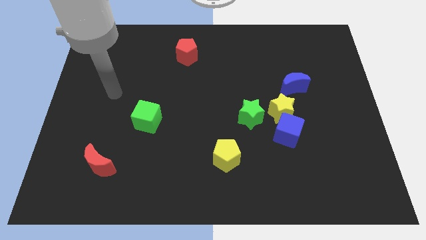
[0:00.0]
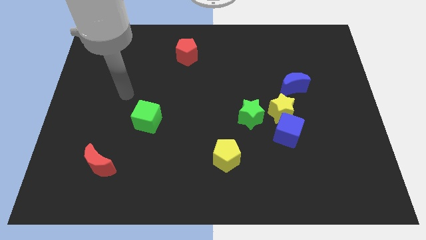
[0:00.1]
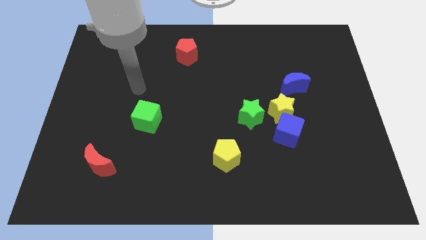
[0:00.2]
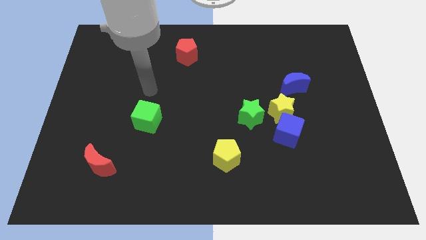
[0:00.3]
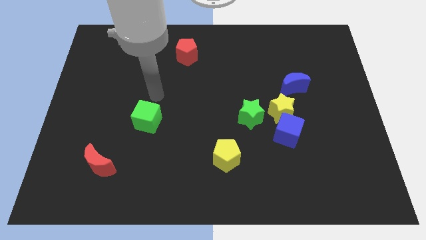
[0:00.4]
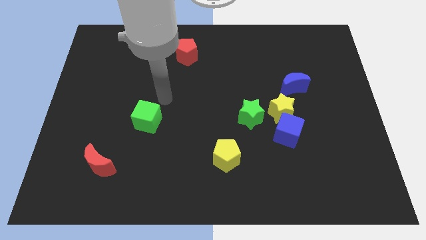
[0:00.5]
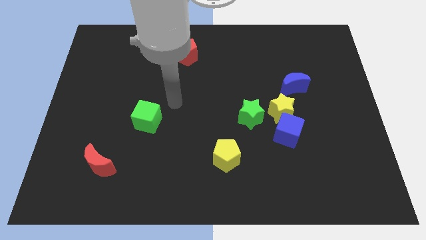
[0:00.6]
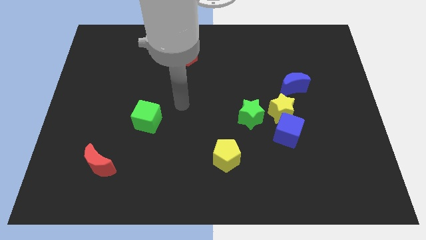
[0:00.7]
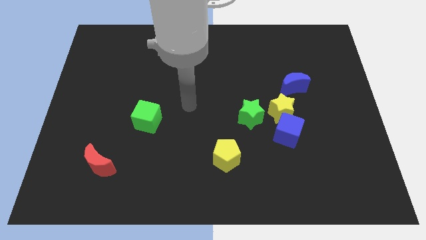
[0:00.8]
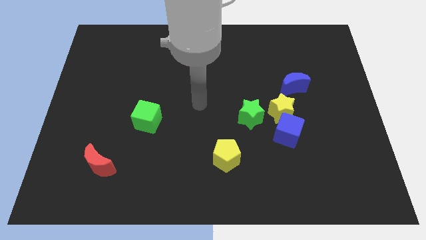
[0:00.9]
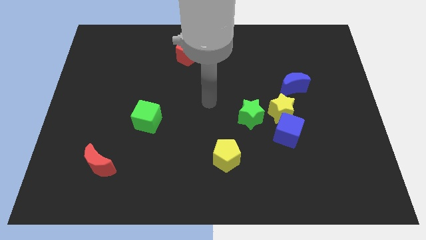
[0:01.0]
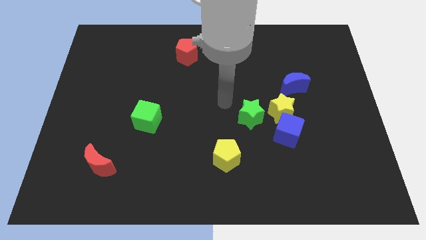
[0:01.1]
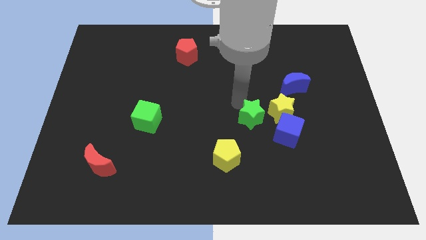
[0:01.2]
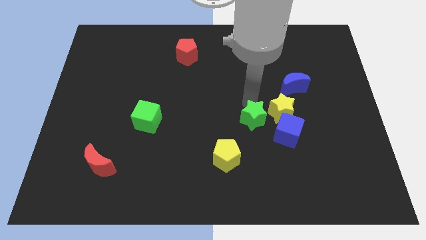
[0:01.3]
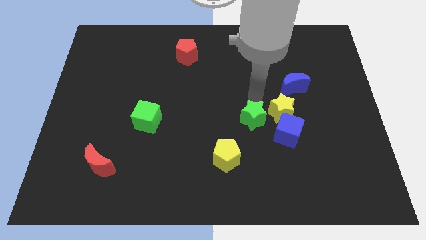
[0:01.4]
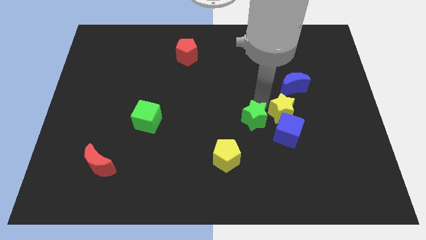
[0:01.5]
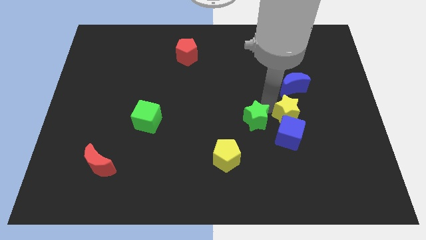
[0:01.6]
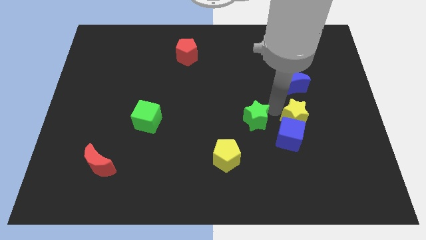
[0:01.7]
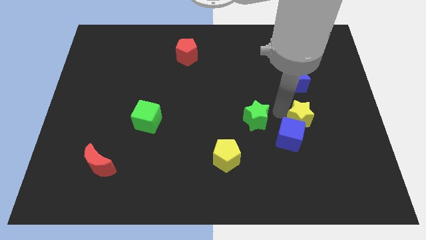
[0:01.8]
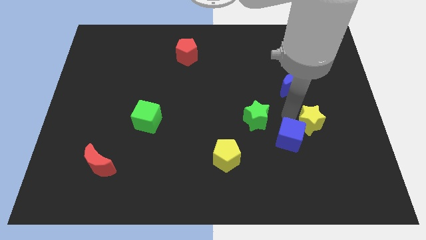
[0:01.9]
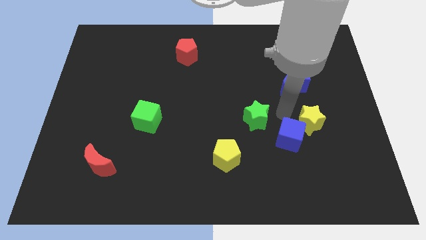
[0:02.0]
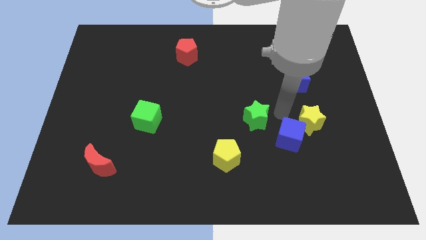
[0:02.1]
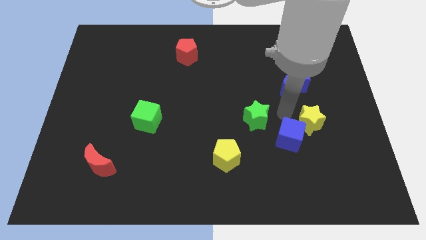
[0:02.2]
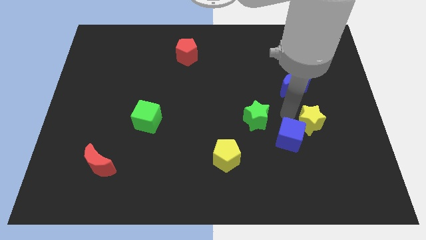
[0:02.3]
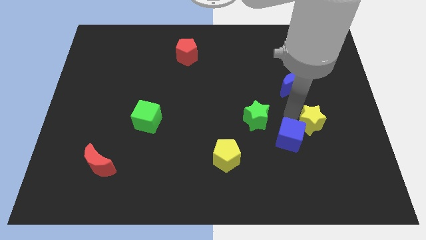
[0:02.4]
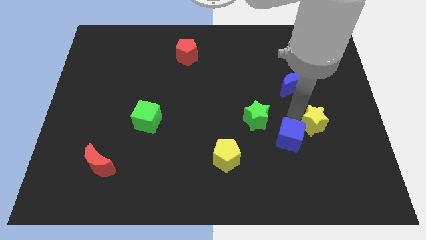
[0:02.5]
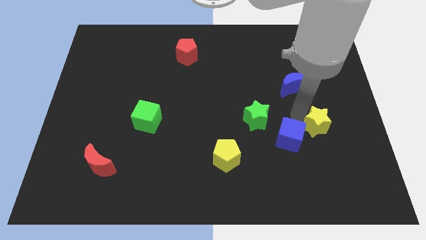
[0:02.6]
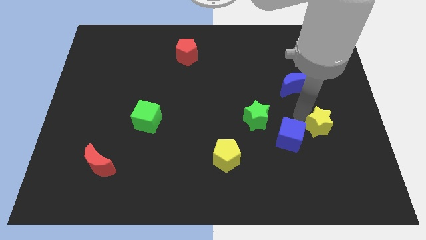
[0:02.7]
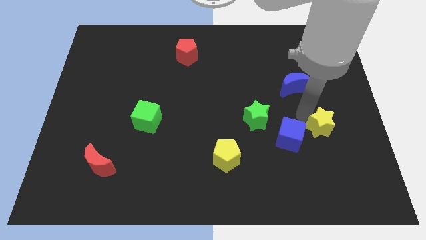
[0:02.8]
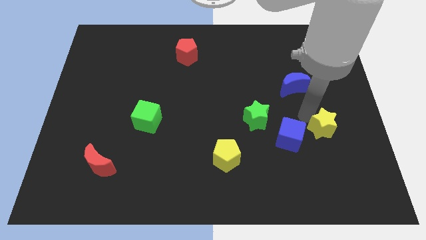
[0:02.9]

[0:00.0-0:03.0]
move the yellow star away from the group of blocks

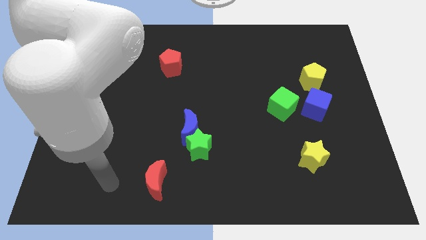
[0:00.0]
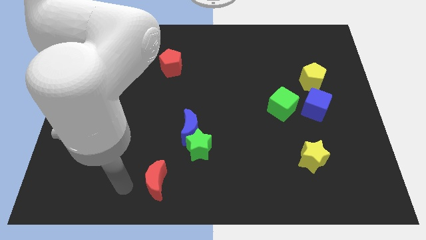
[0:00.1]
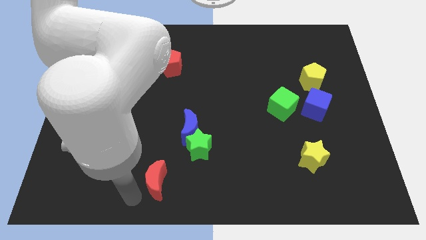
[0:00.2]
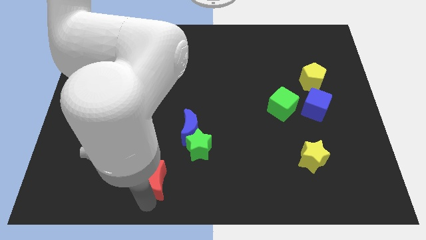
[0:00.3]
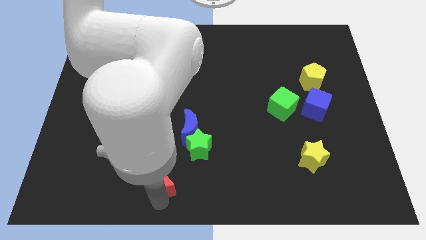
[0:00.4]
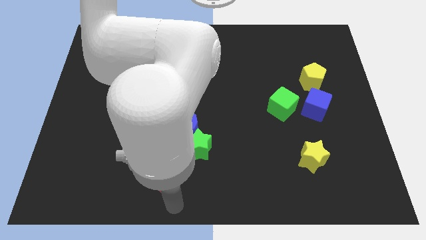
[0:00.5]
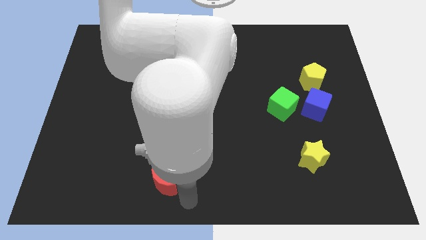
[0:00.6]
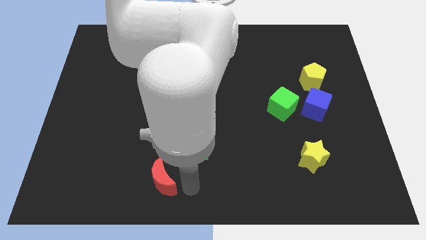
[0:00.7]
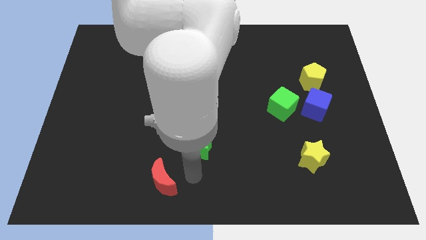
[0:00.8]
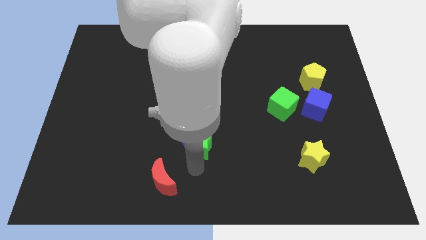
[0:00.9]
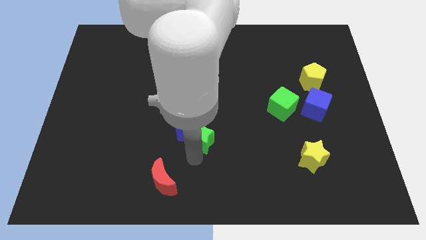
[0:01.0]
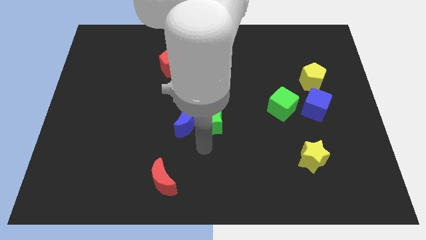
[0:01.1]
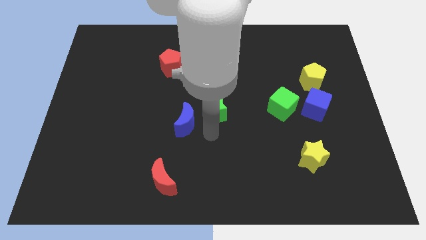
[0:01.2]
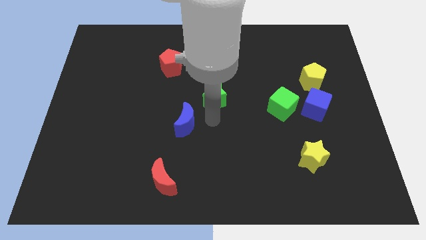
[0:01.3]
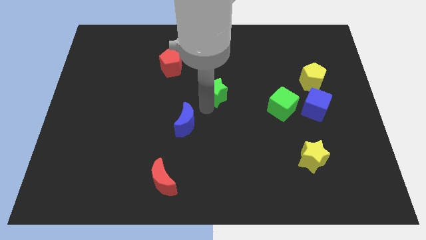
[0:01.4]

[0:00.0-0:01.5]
move the blue moon away from the green star

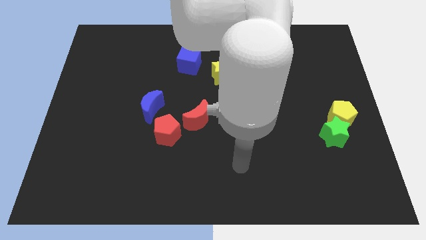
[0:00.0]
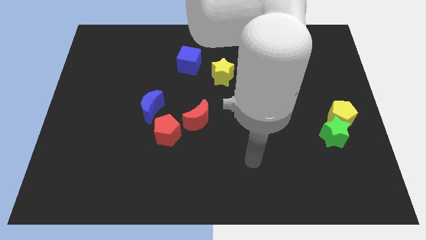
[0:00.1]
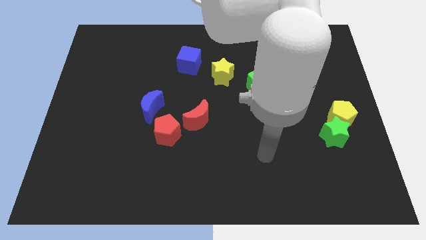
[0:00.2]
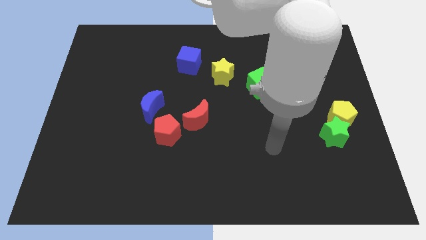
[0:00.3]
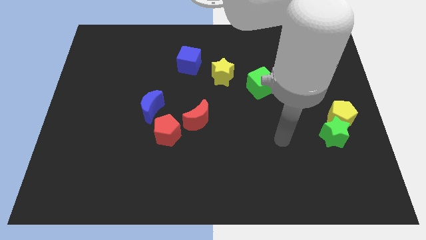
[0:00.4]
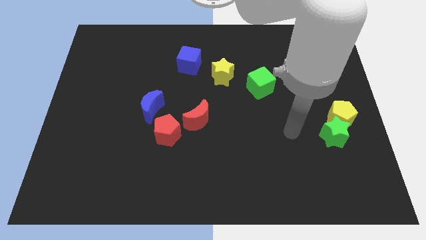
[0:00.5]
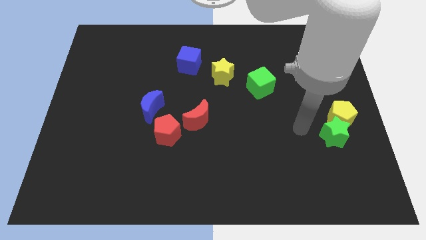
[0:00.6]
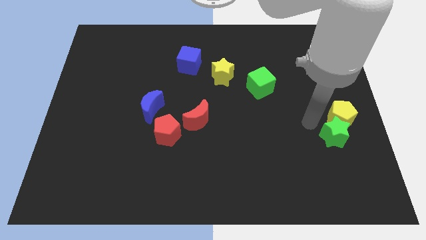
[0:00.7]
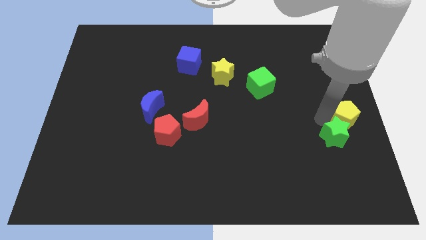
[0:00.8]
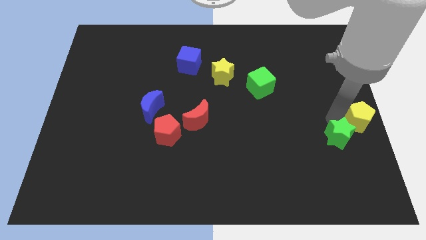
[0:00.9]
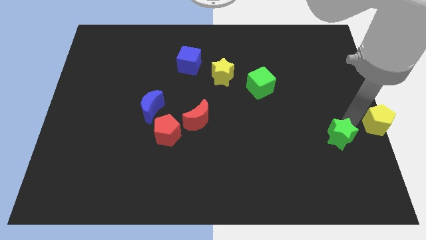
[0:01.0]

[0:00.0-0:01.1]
separate the green star from the yellow pentagon

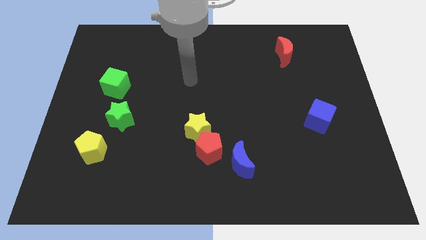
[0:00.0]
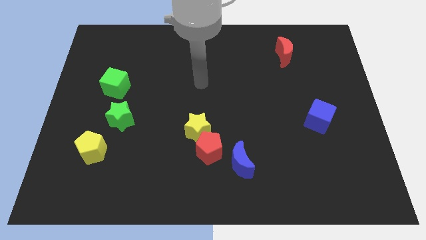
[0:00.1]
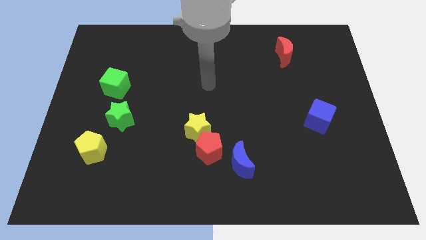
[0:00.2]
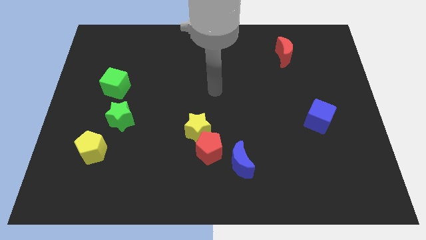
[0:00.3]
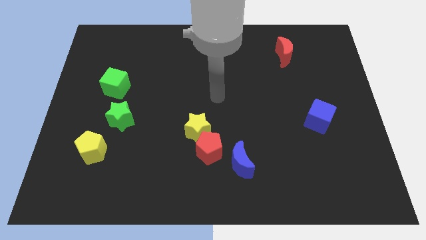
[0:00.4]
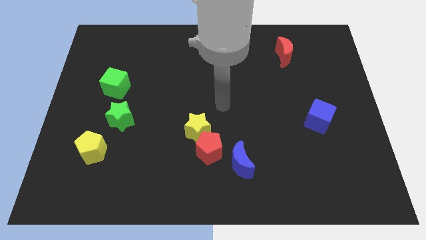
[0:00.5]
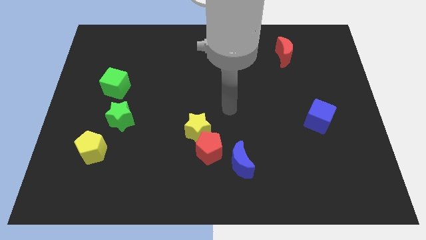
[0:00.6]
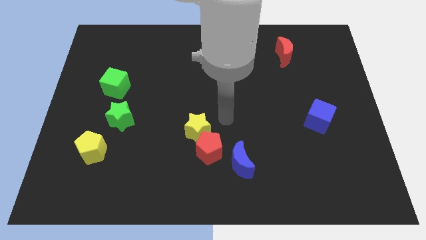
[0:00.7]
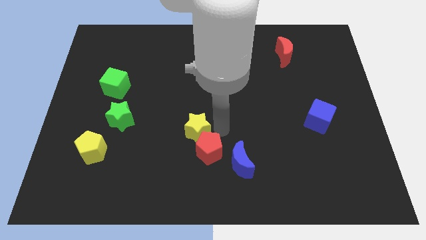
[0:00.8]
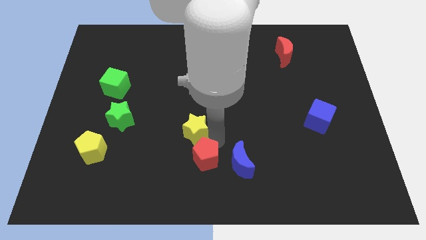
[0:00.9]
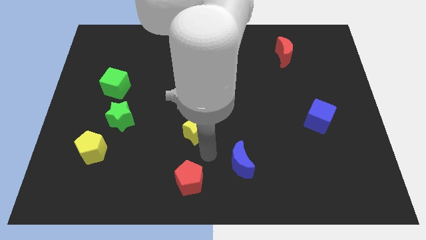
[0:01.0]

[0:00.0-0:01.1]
pull the yellow star apart from the red pentagon

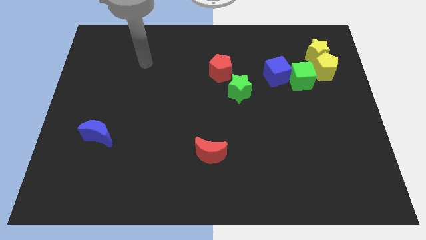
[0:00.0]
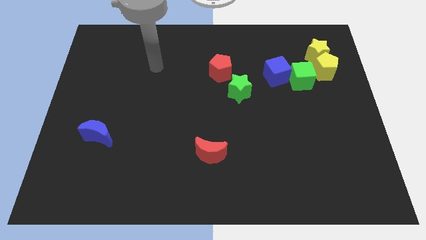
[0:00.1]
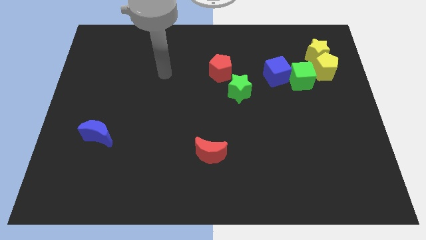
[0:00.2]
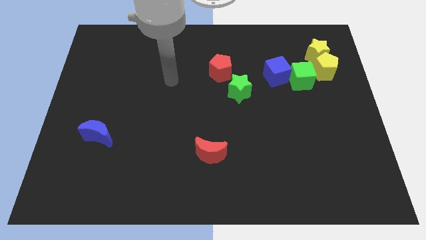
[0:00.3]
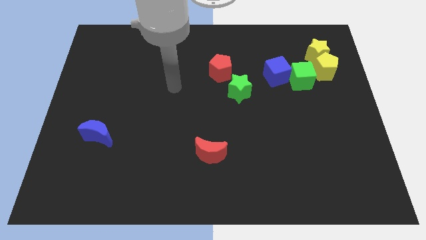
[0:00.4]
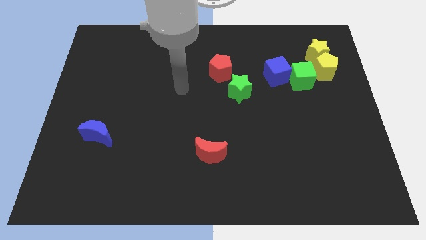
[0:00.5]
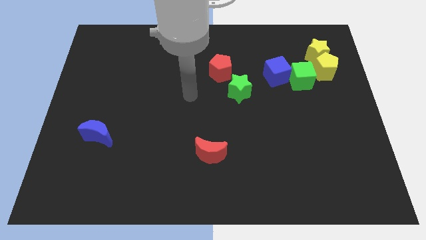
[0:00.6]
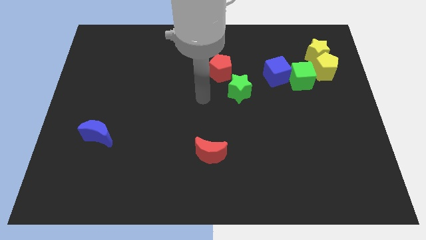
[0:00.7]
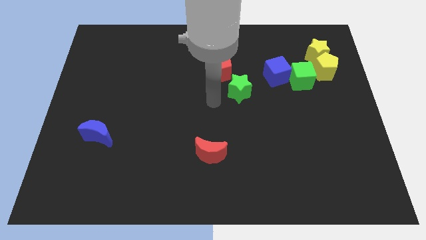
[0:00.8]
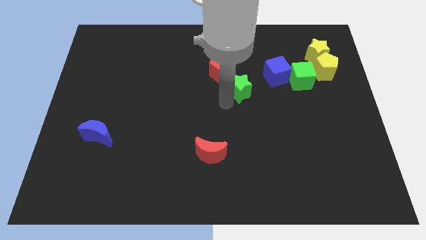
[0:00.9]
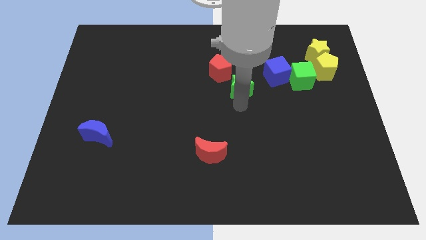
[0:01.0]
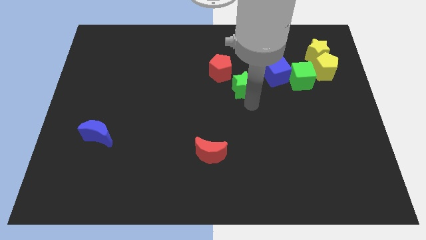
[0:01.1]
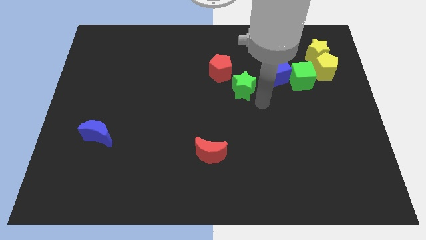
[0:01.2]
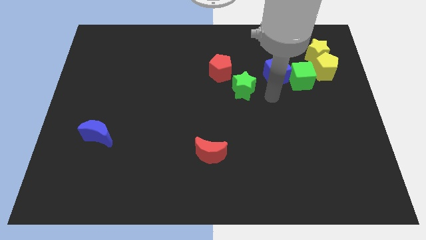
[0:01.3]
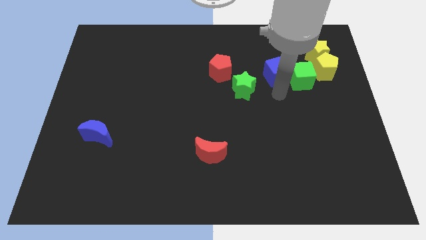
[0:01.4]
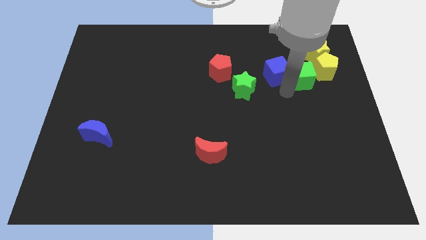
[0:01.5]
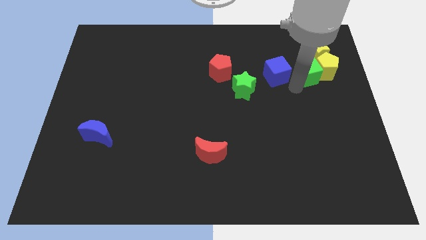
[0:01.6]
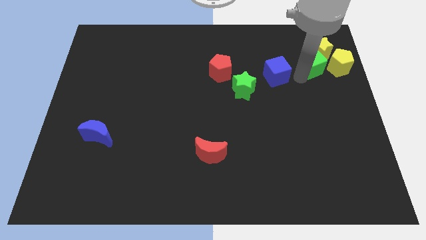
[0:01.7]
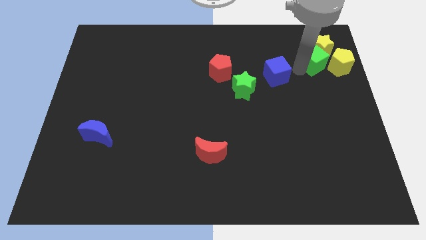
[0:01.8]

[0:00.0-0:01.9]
pull the blue cube apart from the green cube

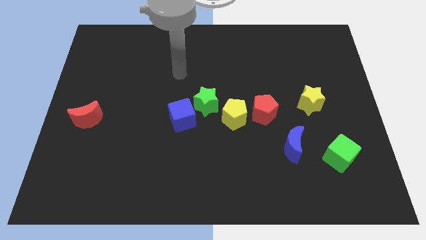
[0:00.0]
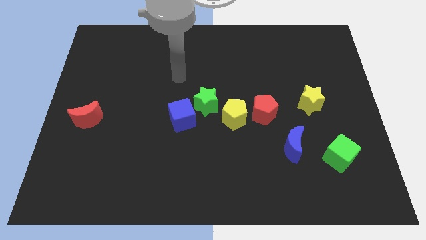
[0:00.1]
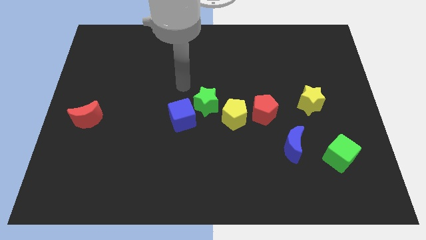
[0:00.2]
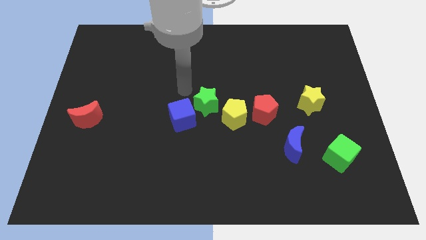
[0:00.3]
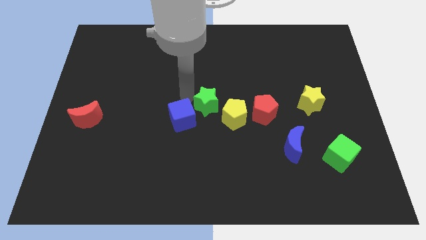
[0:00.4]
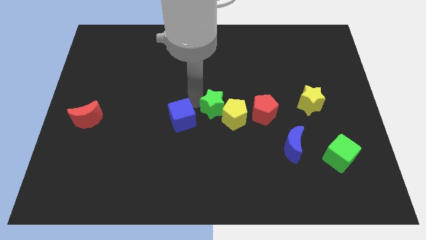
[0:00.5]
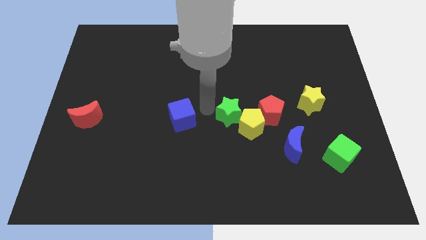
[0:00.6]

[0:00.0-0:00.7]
pull the blue cube apart from the green star
